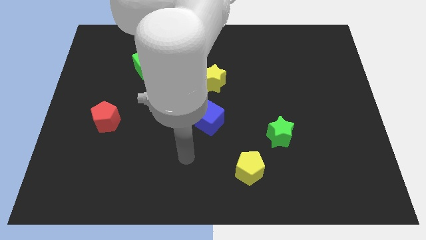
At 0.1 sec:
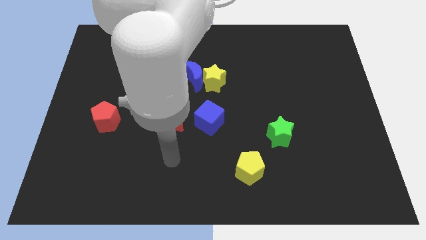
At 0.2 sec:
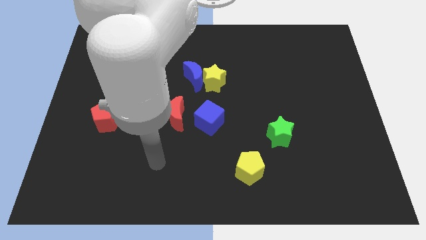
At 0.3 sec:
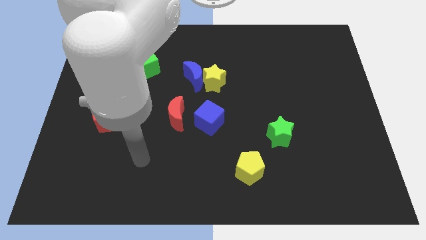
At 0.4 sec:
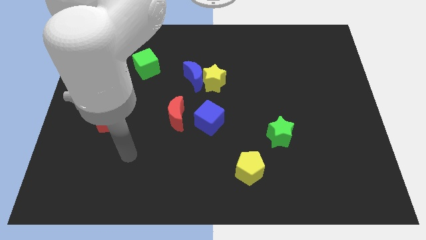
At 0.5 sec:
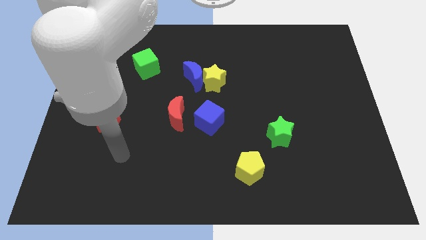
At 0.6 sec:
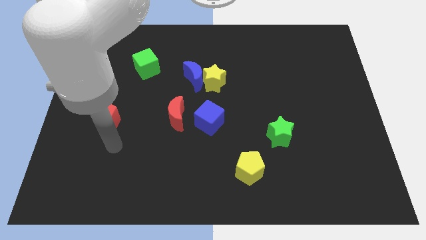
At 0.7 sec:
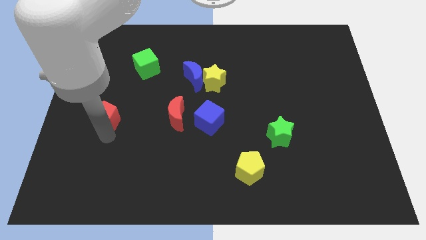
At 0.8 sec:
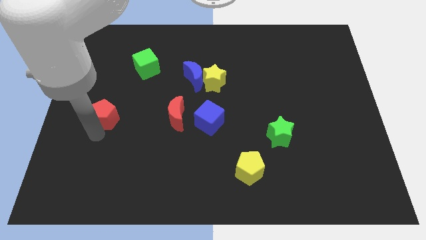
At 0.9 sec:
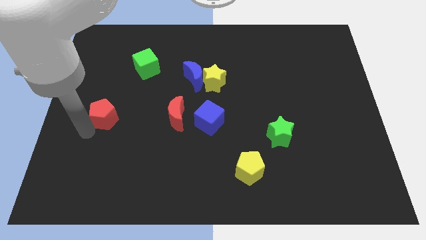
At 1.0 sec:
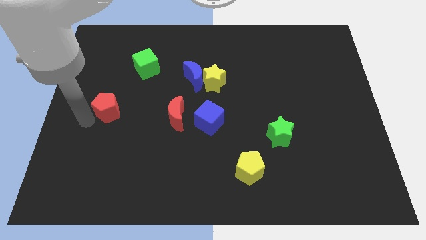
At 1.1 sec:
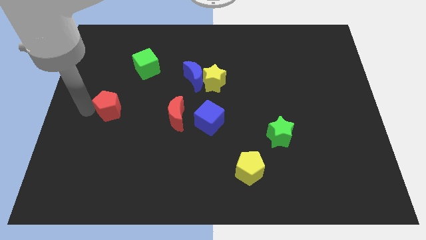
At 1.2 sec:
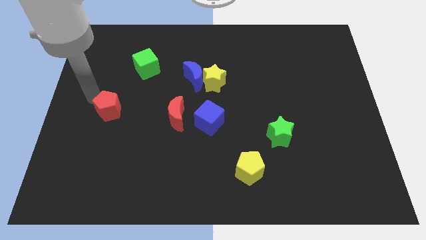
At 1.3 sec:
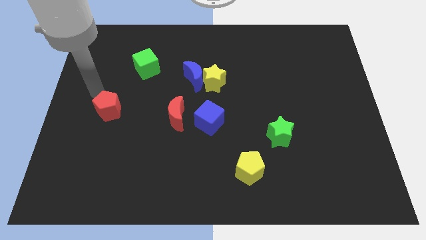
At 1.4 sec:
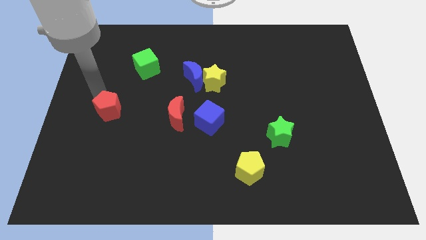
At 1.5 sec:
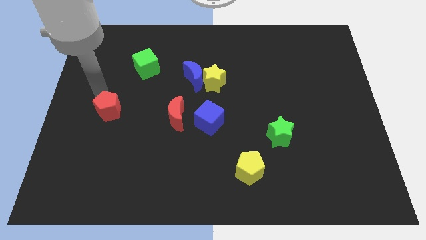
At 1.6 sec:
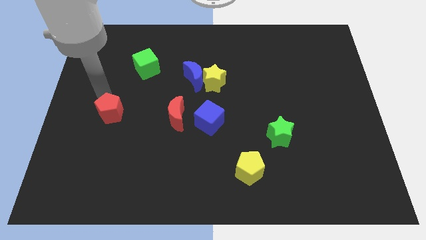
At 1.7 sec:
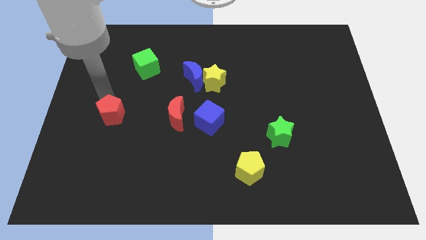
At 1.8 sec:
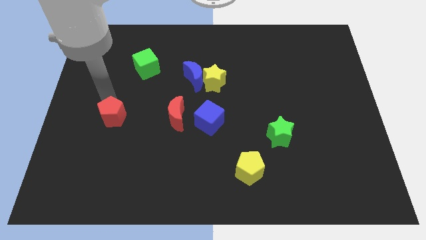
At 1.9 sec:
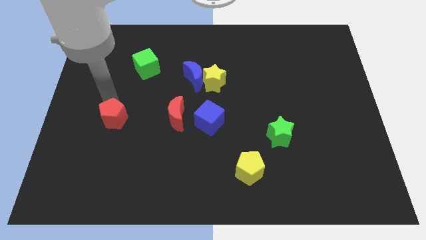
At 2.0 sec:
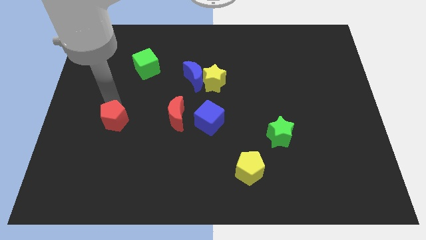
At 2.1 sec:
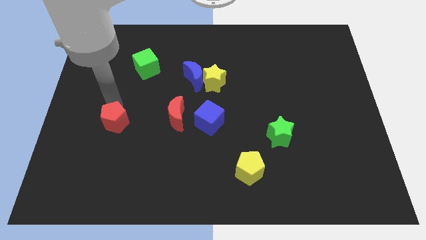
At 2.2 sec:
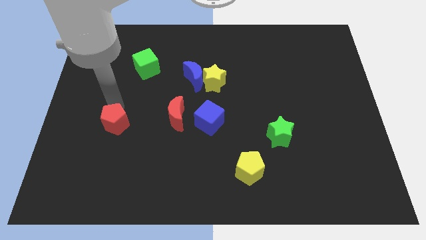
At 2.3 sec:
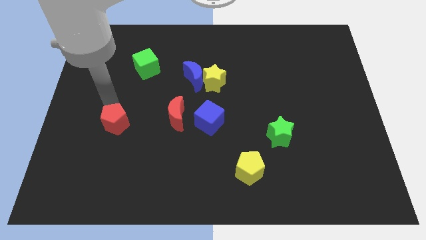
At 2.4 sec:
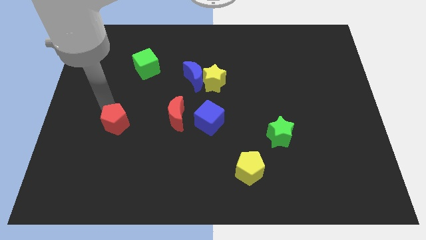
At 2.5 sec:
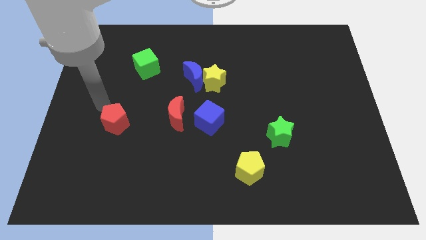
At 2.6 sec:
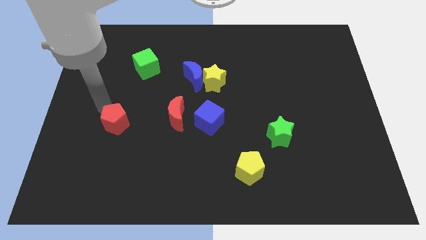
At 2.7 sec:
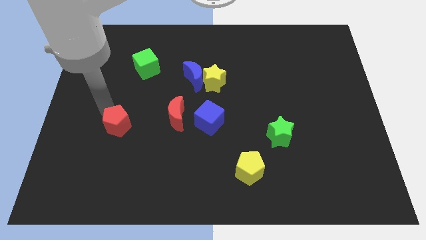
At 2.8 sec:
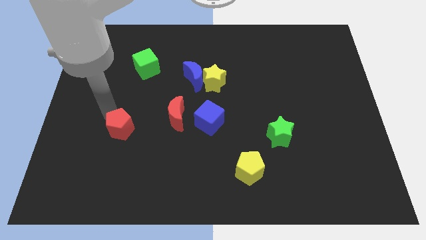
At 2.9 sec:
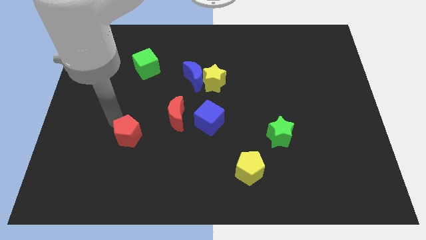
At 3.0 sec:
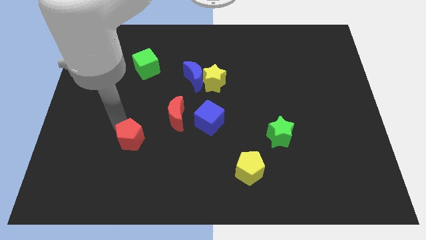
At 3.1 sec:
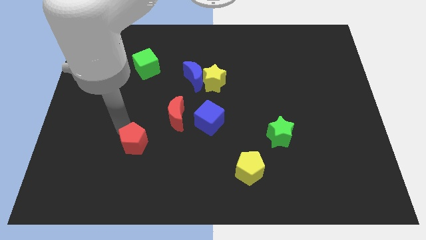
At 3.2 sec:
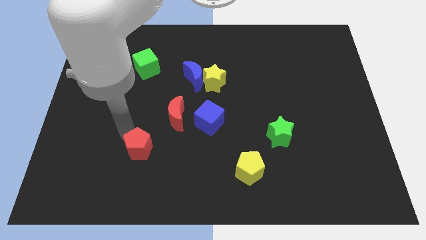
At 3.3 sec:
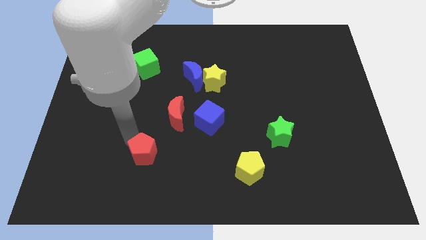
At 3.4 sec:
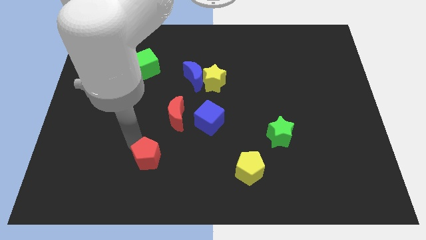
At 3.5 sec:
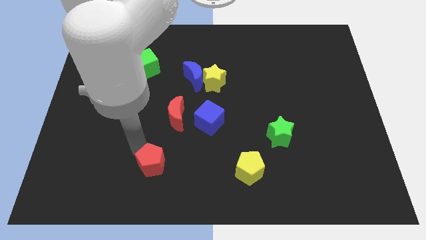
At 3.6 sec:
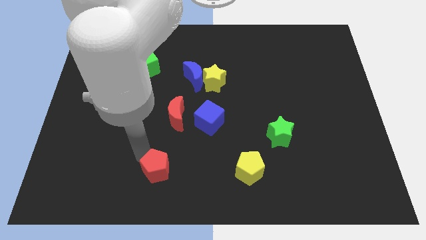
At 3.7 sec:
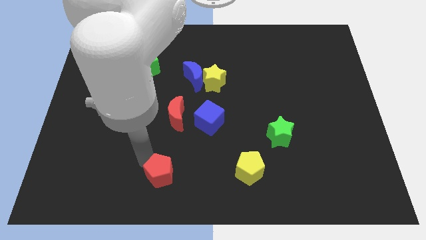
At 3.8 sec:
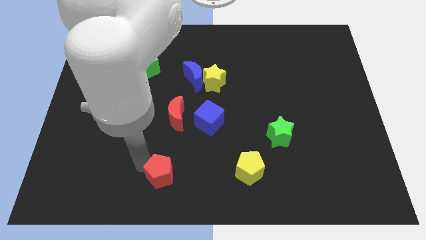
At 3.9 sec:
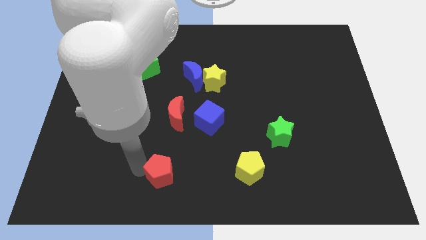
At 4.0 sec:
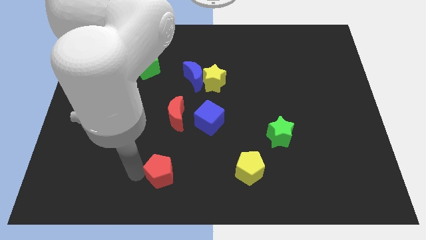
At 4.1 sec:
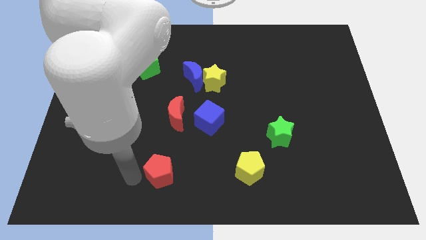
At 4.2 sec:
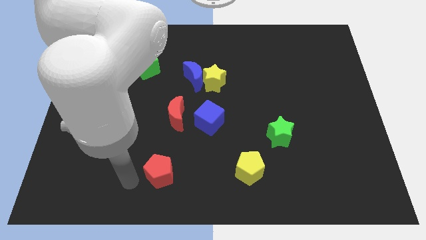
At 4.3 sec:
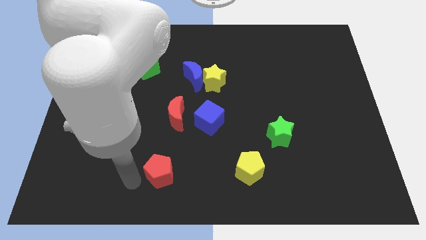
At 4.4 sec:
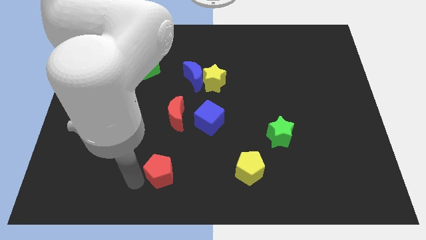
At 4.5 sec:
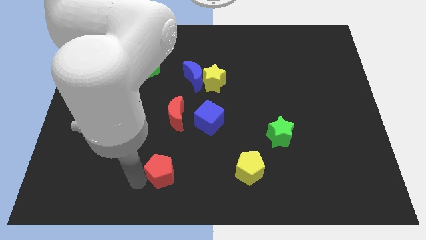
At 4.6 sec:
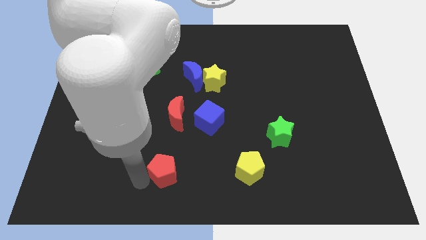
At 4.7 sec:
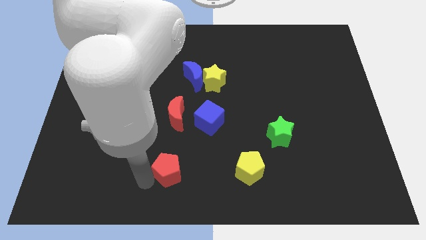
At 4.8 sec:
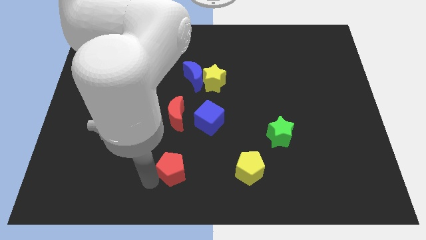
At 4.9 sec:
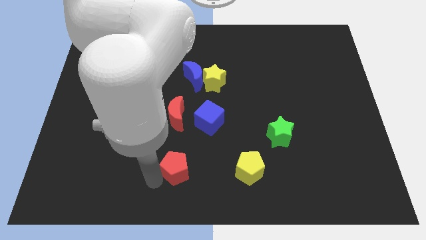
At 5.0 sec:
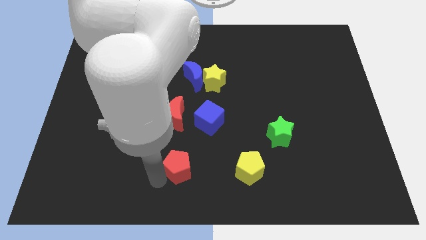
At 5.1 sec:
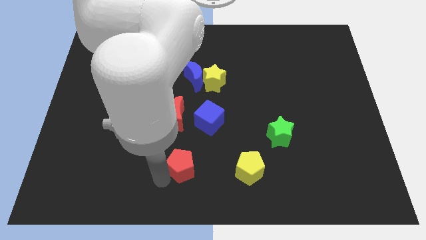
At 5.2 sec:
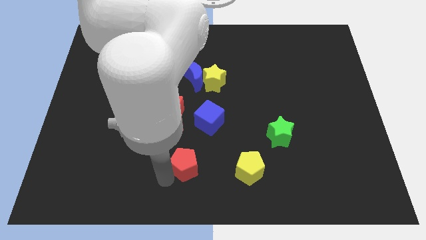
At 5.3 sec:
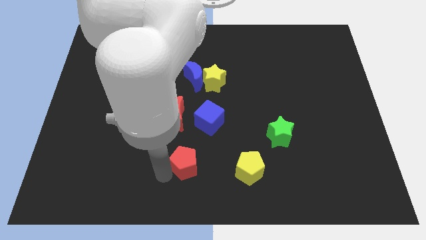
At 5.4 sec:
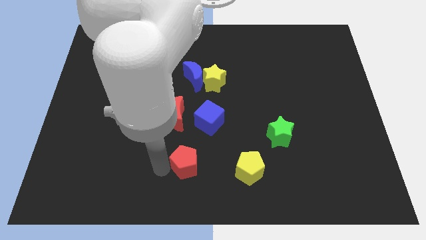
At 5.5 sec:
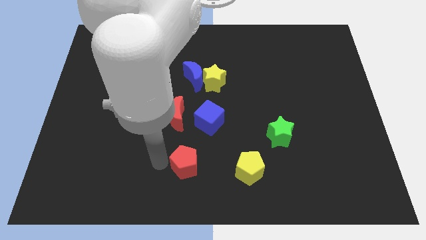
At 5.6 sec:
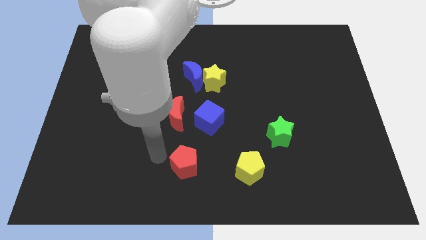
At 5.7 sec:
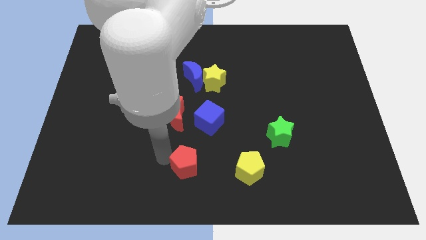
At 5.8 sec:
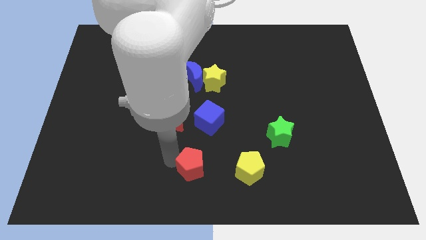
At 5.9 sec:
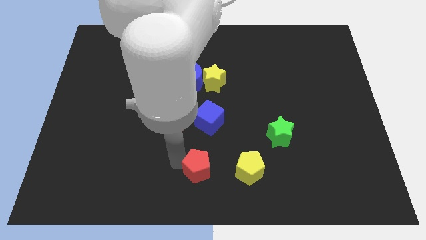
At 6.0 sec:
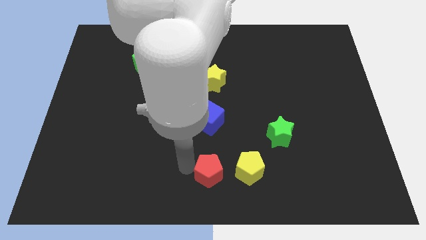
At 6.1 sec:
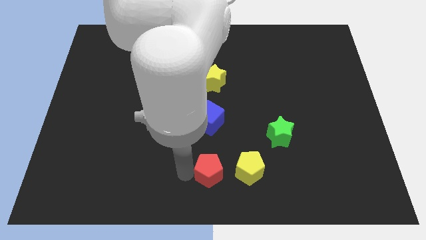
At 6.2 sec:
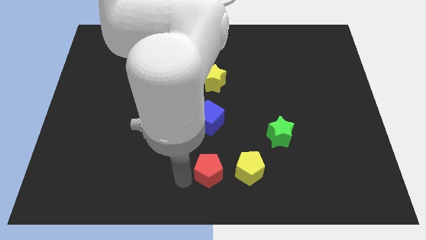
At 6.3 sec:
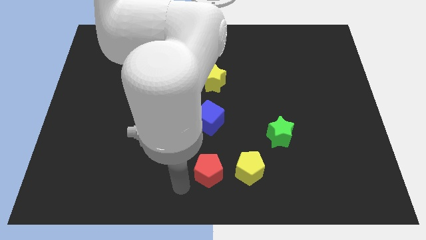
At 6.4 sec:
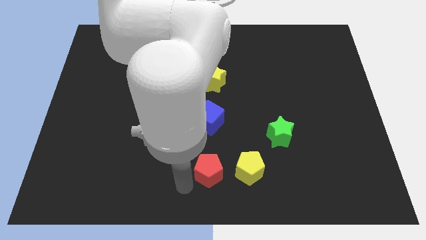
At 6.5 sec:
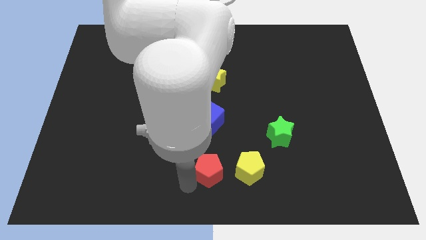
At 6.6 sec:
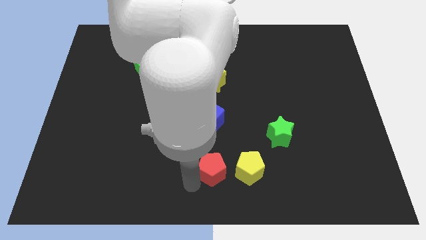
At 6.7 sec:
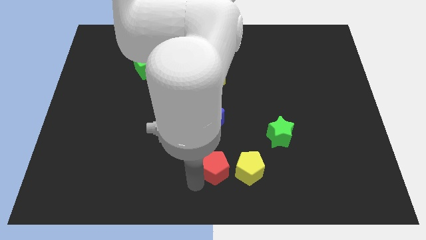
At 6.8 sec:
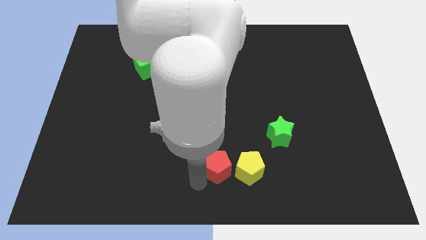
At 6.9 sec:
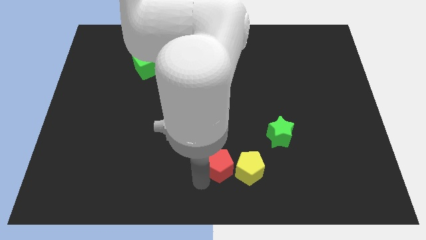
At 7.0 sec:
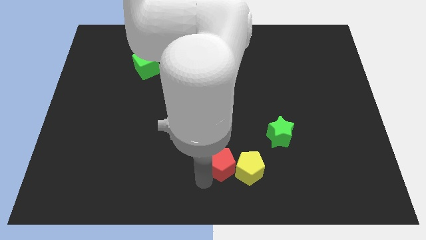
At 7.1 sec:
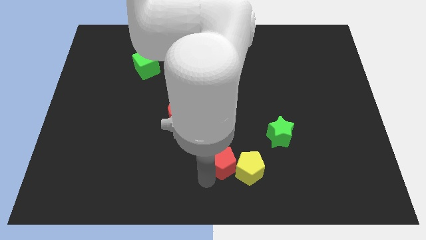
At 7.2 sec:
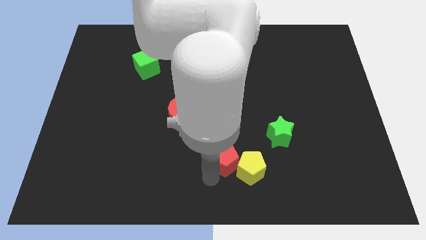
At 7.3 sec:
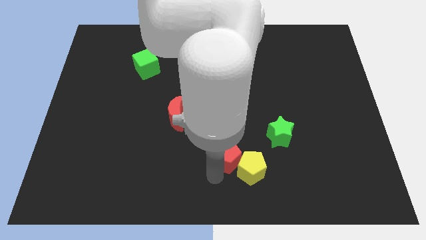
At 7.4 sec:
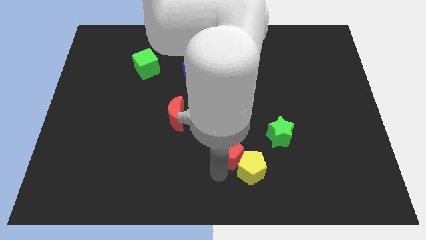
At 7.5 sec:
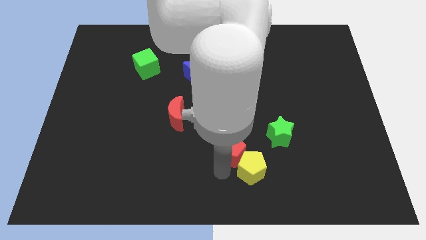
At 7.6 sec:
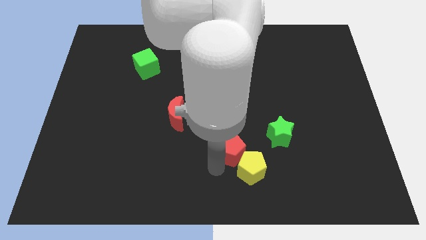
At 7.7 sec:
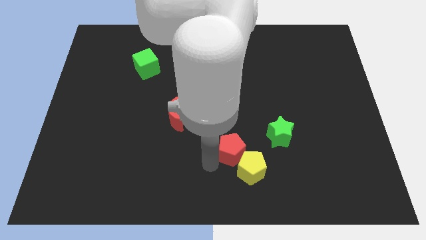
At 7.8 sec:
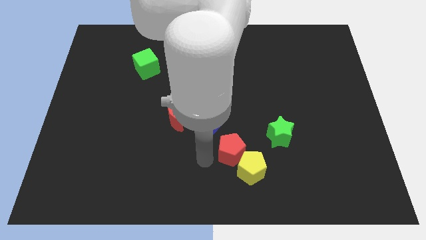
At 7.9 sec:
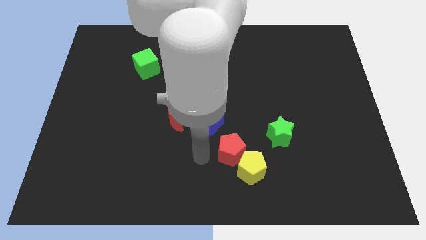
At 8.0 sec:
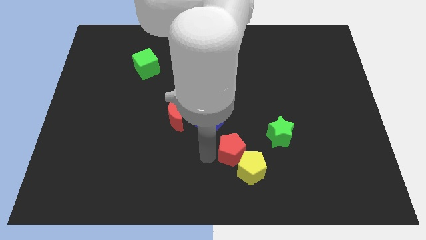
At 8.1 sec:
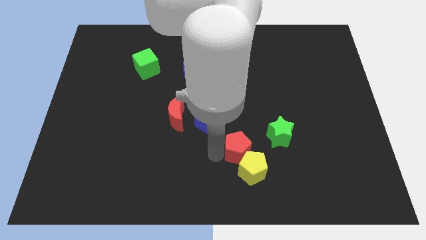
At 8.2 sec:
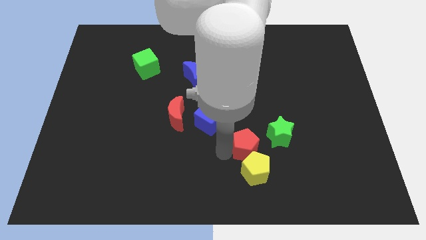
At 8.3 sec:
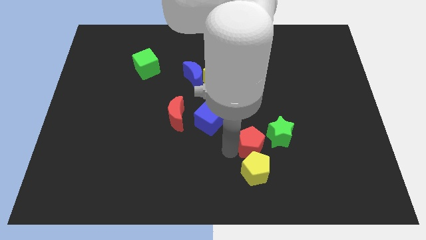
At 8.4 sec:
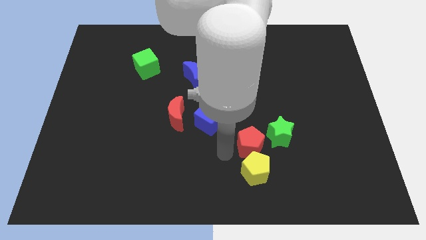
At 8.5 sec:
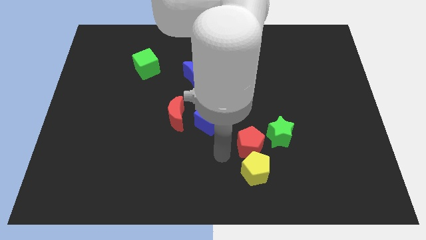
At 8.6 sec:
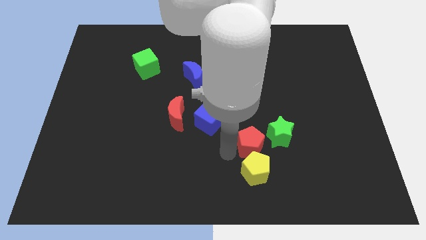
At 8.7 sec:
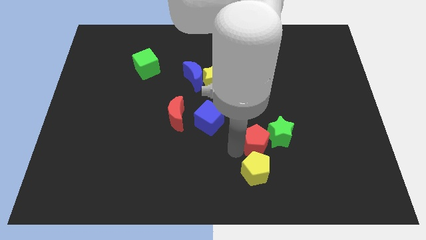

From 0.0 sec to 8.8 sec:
slide the red pentagon towards the green star
